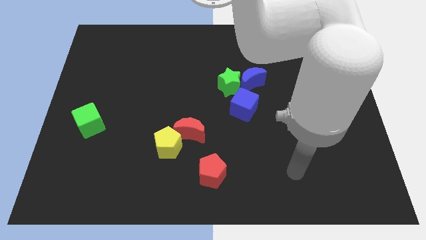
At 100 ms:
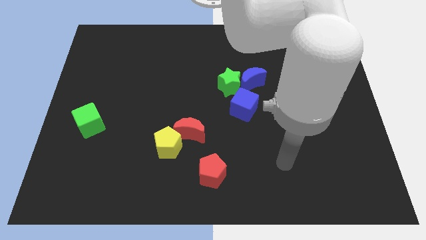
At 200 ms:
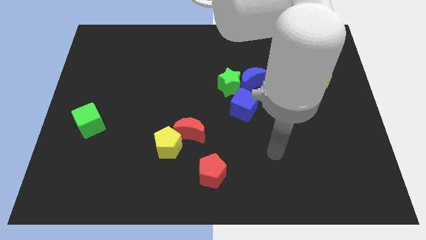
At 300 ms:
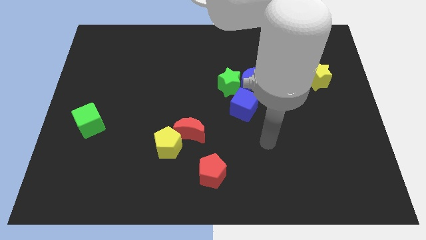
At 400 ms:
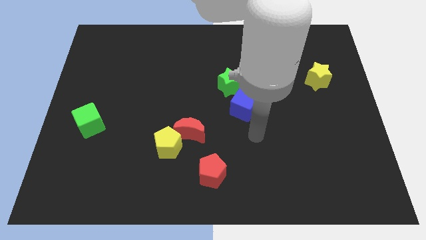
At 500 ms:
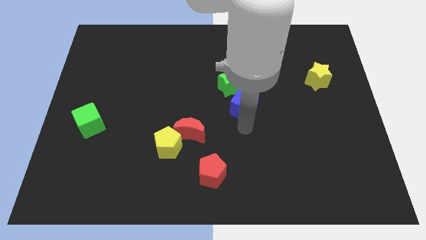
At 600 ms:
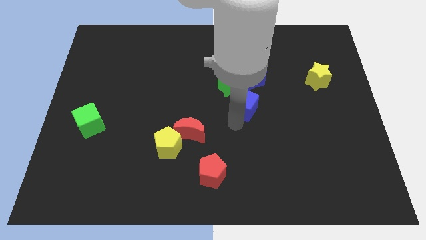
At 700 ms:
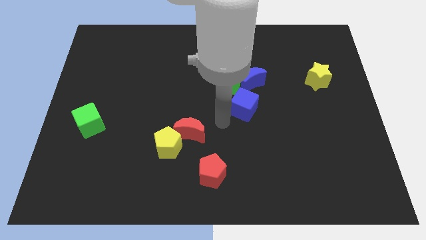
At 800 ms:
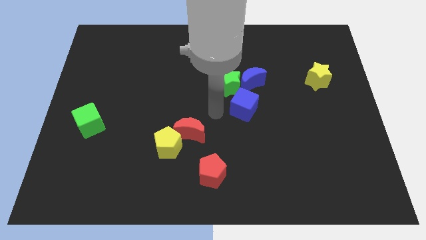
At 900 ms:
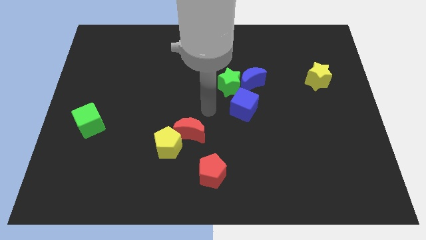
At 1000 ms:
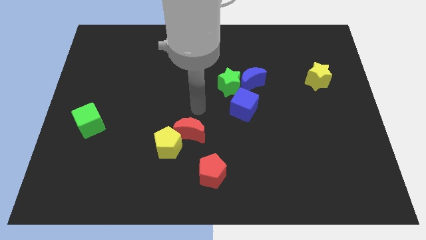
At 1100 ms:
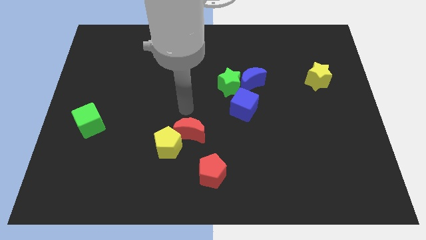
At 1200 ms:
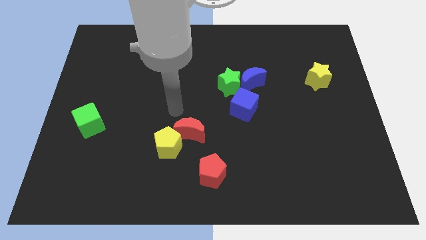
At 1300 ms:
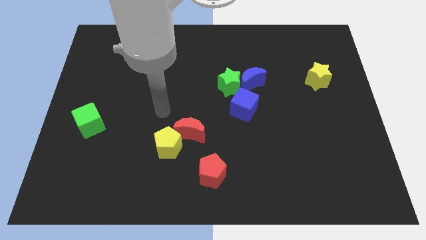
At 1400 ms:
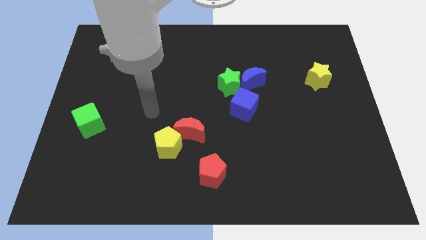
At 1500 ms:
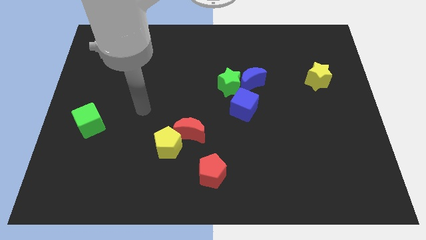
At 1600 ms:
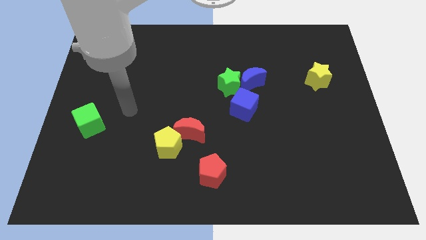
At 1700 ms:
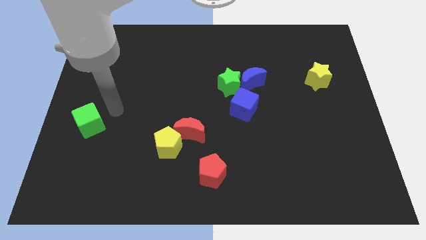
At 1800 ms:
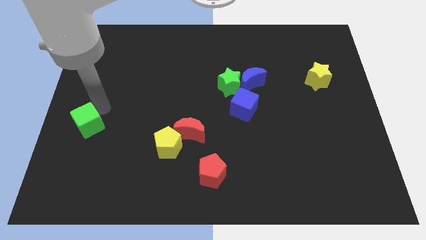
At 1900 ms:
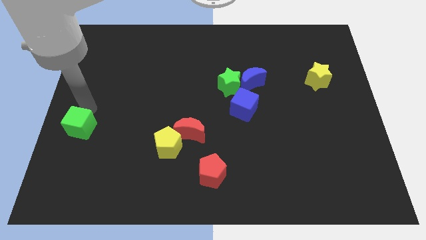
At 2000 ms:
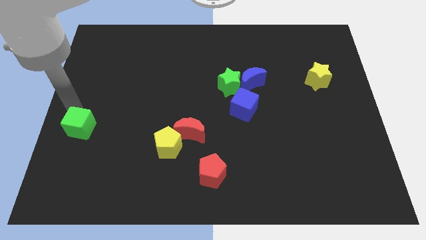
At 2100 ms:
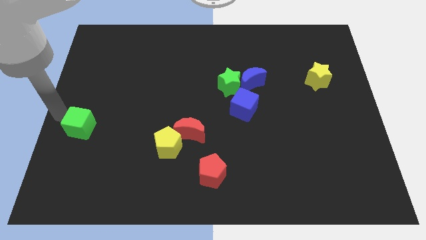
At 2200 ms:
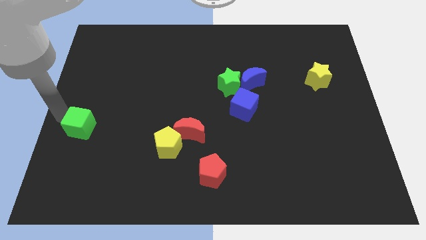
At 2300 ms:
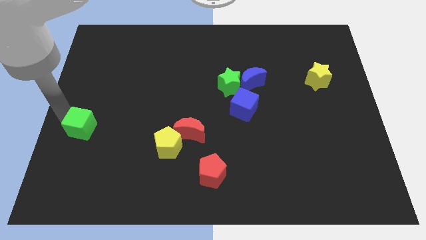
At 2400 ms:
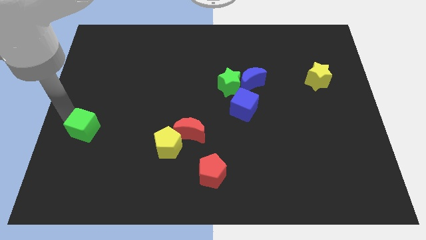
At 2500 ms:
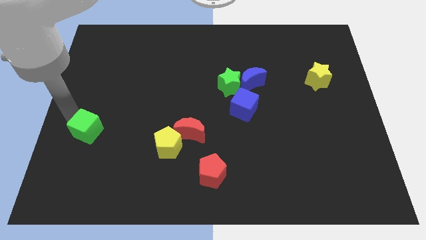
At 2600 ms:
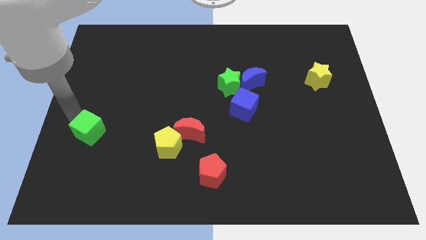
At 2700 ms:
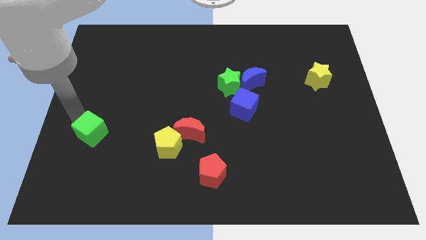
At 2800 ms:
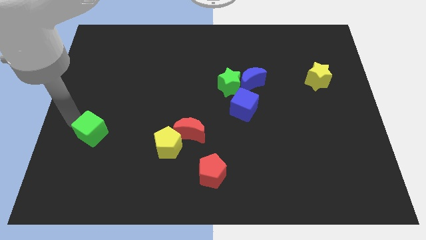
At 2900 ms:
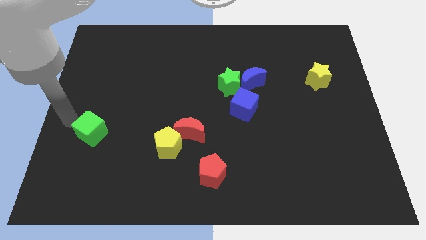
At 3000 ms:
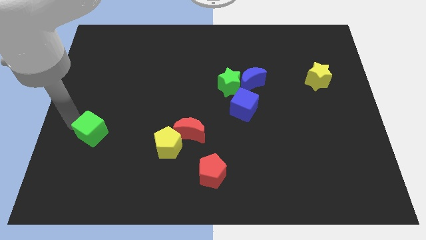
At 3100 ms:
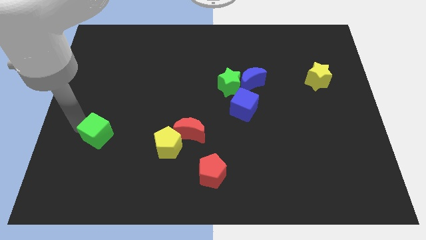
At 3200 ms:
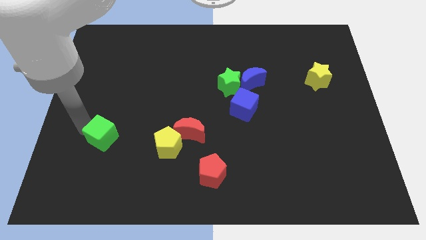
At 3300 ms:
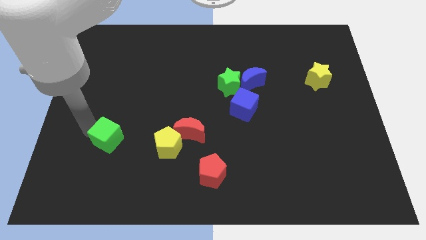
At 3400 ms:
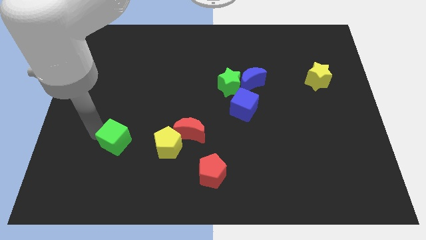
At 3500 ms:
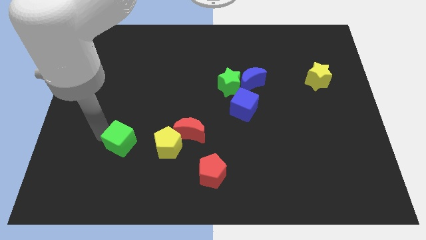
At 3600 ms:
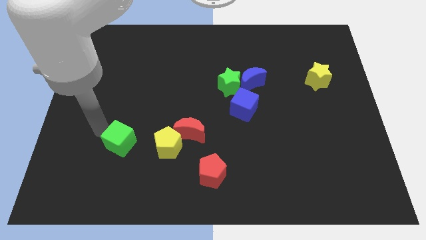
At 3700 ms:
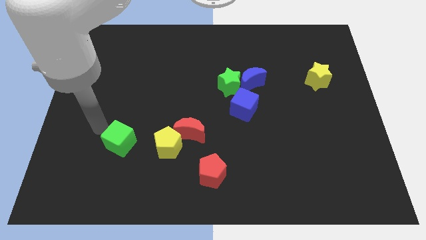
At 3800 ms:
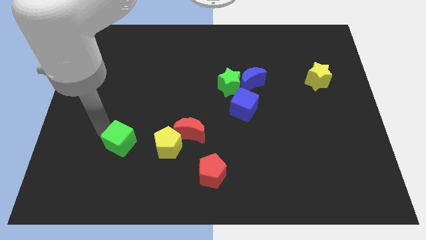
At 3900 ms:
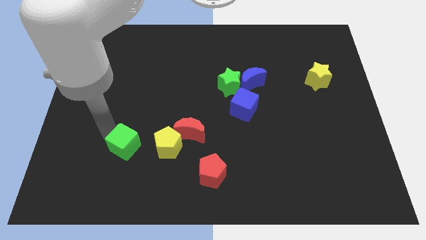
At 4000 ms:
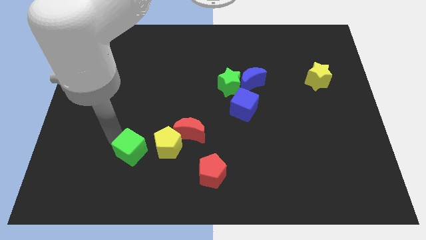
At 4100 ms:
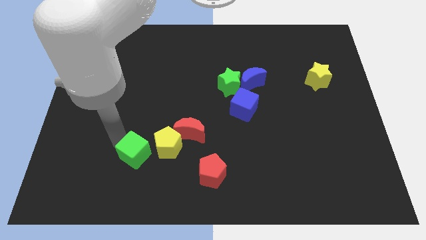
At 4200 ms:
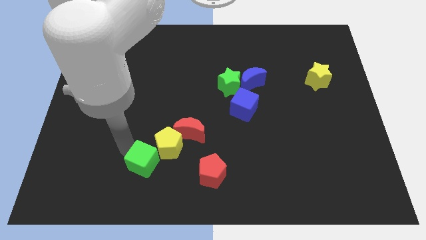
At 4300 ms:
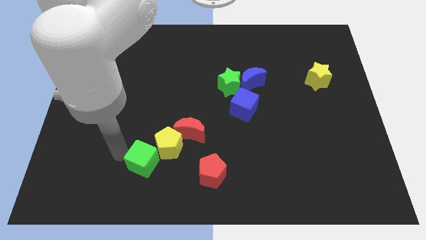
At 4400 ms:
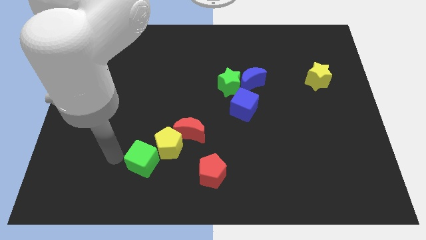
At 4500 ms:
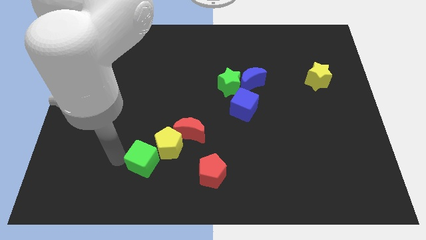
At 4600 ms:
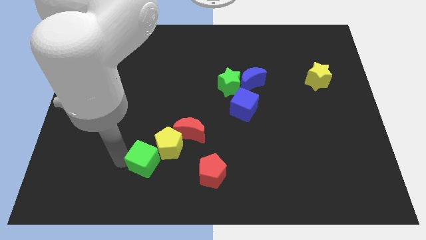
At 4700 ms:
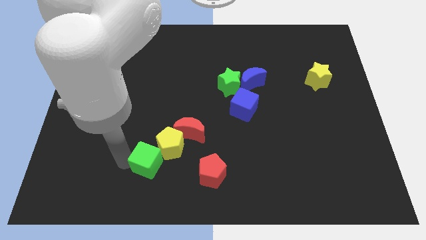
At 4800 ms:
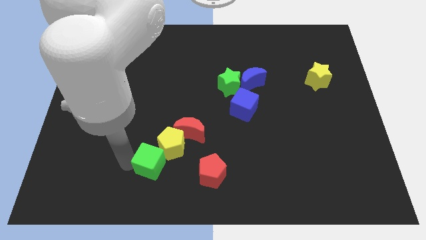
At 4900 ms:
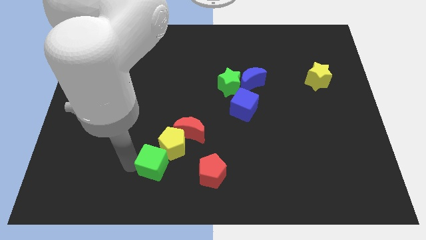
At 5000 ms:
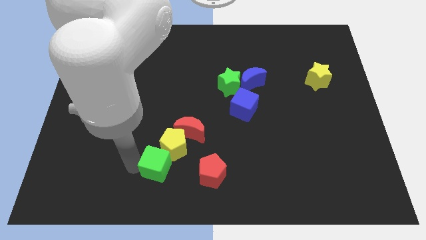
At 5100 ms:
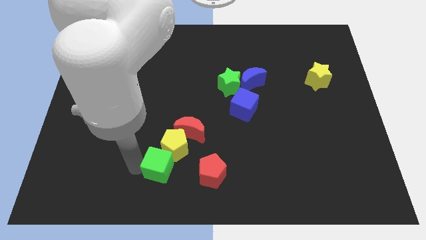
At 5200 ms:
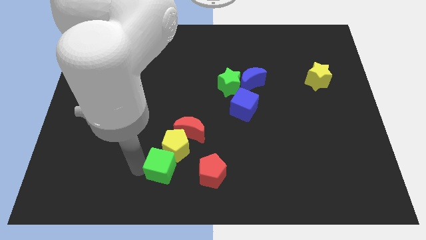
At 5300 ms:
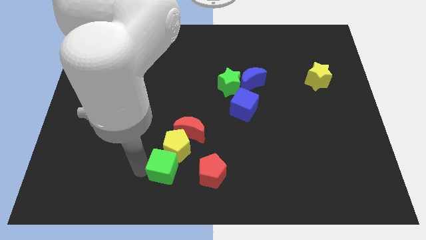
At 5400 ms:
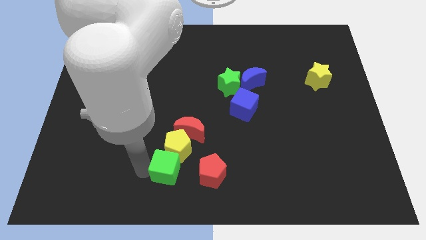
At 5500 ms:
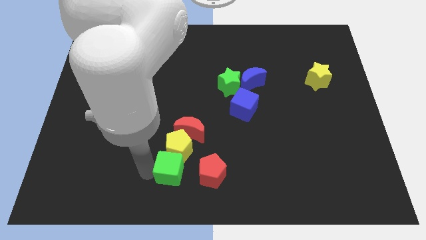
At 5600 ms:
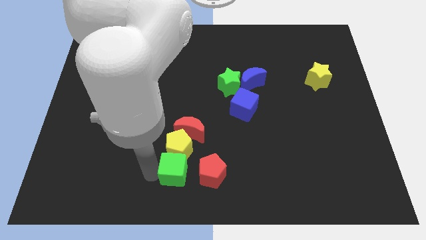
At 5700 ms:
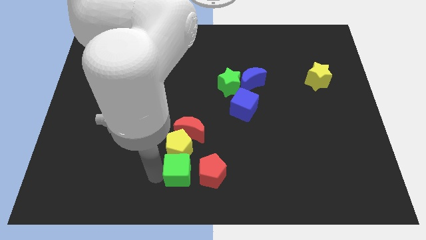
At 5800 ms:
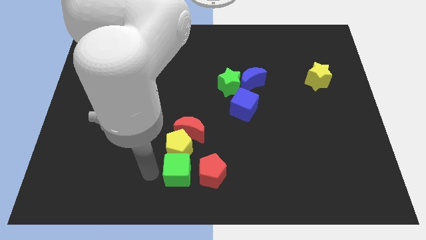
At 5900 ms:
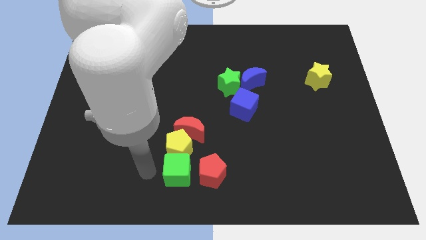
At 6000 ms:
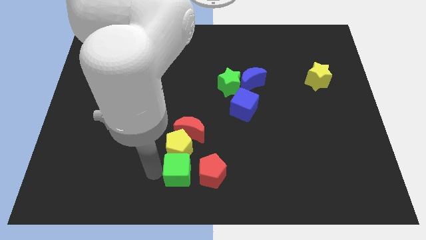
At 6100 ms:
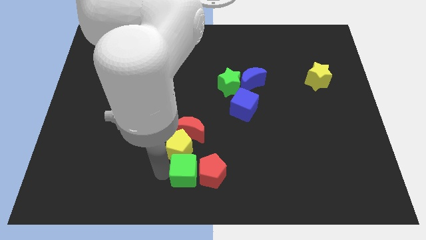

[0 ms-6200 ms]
push the green cube next to the red pentagon

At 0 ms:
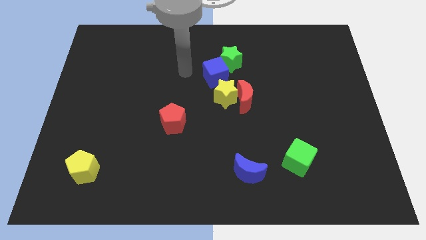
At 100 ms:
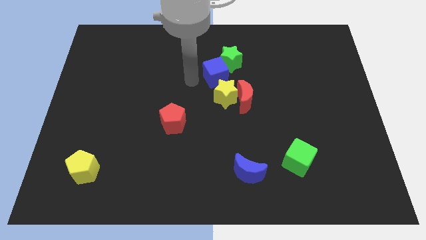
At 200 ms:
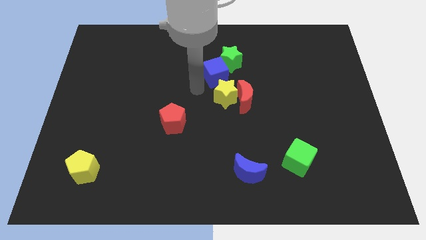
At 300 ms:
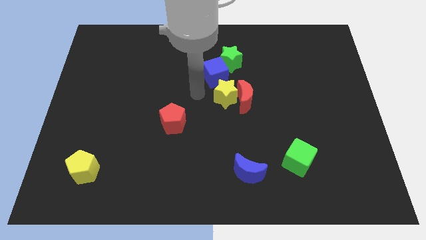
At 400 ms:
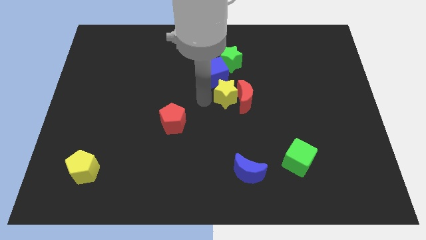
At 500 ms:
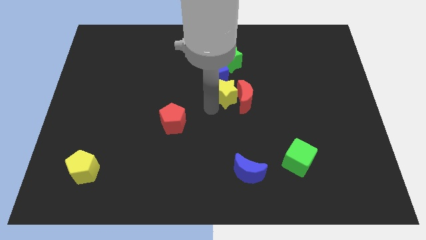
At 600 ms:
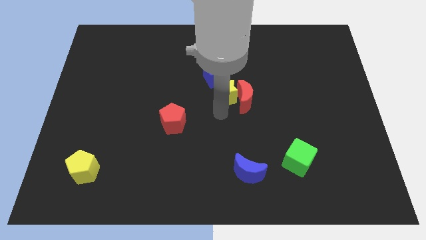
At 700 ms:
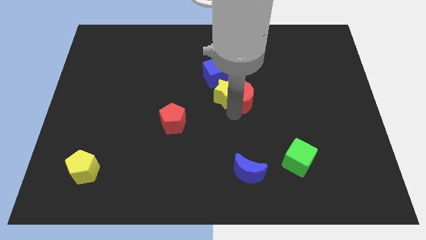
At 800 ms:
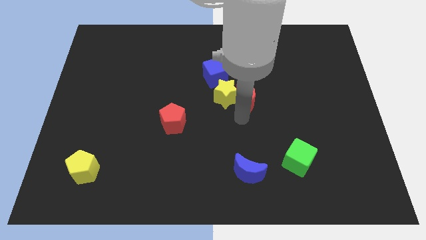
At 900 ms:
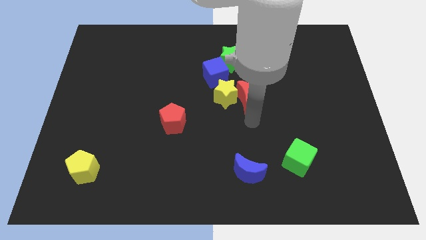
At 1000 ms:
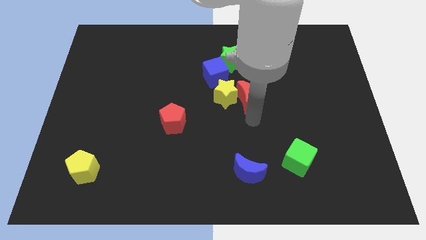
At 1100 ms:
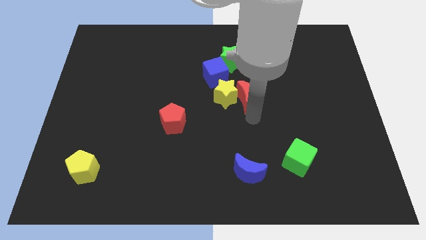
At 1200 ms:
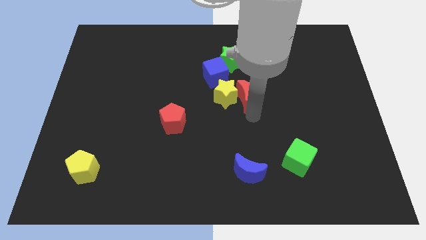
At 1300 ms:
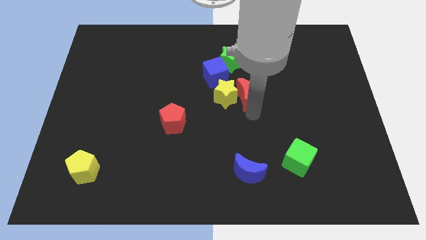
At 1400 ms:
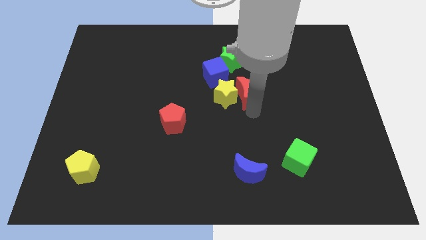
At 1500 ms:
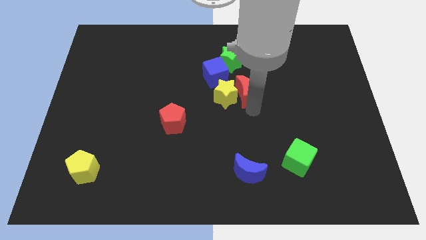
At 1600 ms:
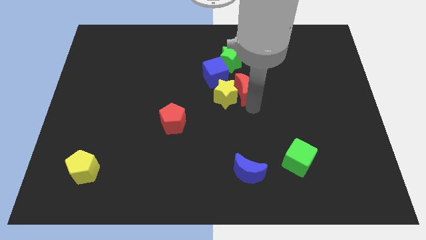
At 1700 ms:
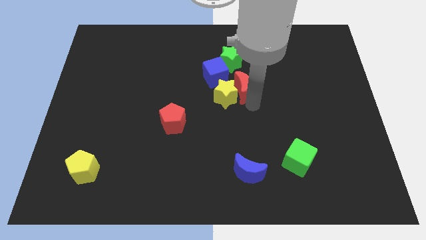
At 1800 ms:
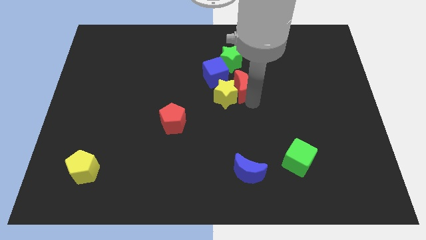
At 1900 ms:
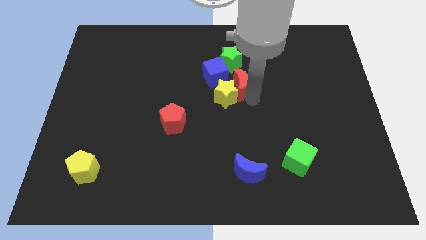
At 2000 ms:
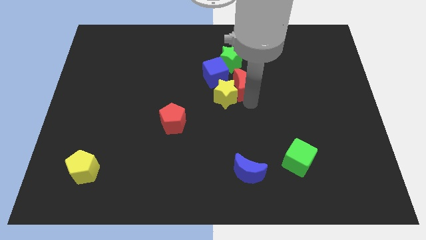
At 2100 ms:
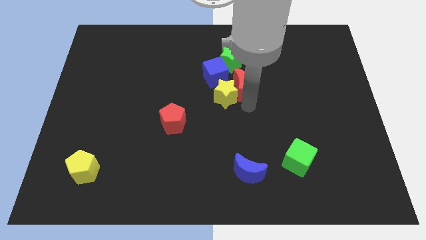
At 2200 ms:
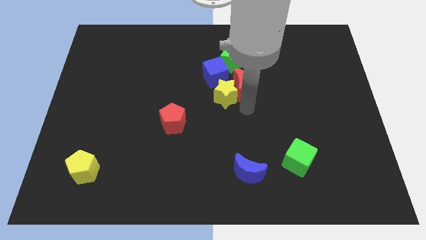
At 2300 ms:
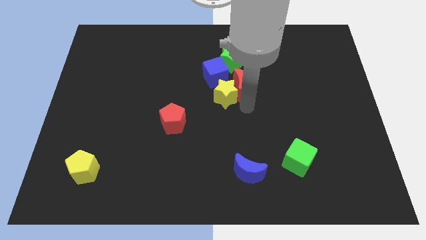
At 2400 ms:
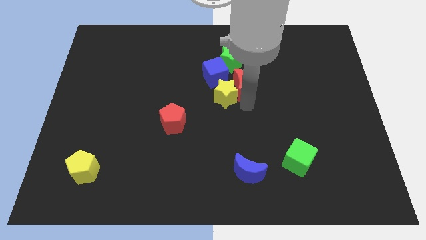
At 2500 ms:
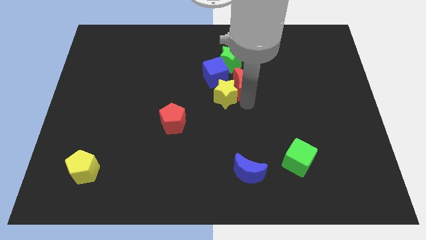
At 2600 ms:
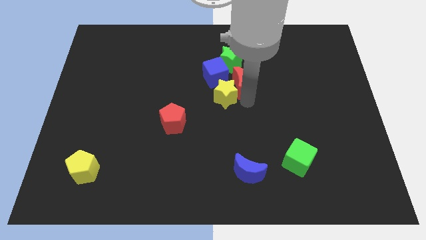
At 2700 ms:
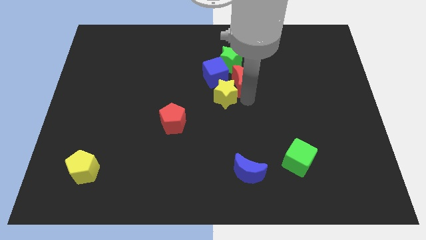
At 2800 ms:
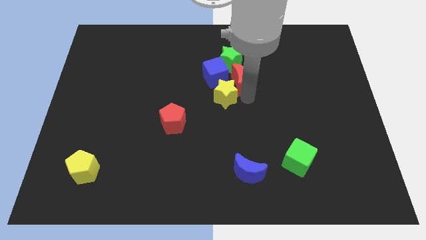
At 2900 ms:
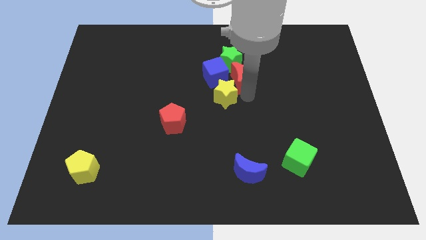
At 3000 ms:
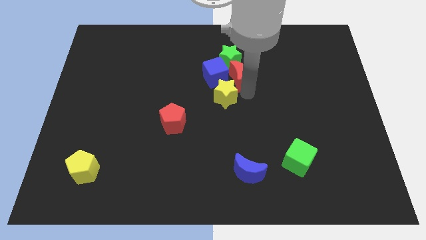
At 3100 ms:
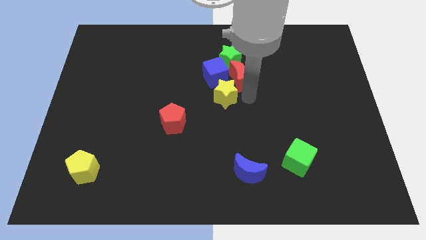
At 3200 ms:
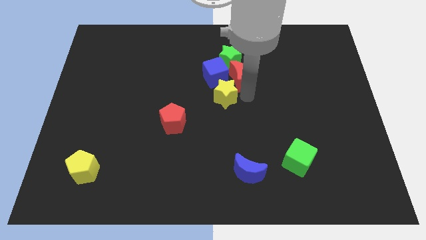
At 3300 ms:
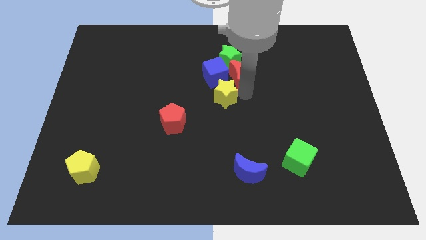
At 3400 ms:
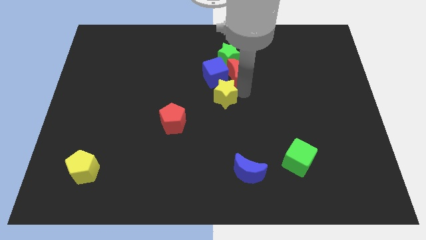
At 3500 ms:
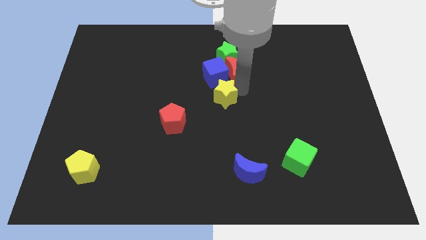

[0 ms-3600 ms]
push the red moon towards the green star
